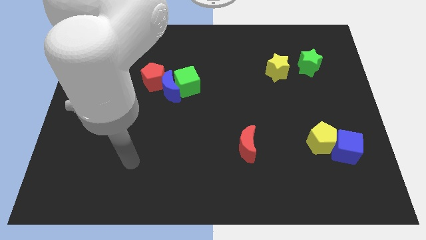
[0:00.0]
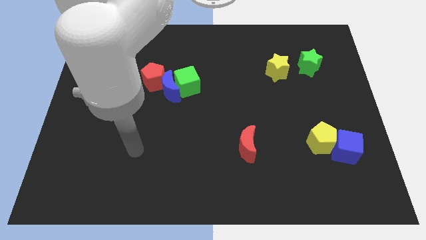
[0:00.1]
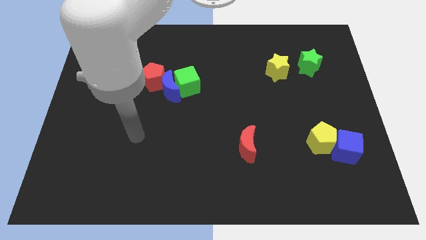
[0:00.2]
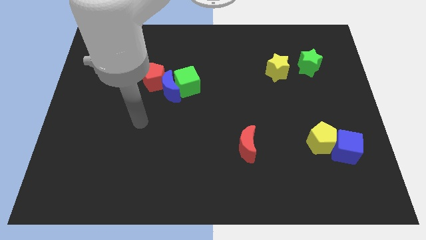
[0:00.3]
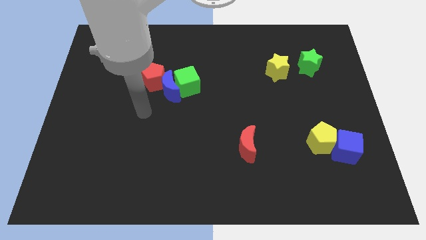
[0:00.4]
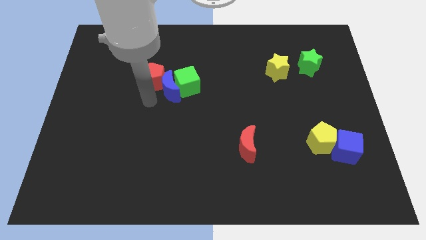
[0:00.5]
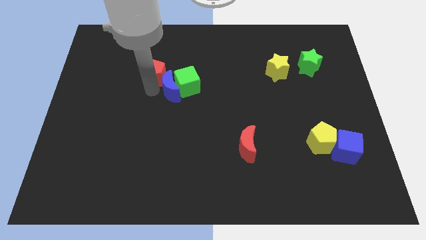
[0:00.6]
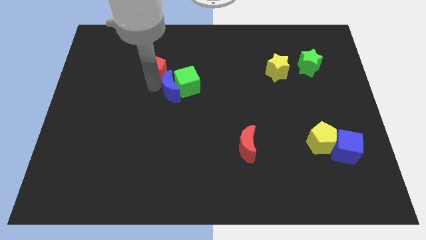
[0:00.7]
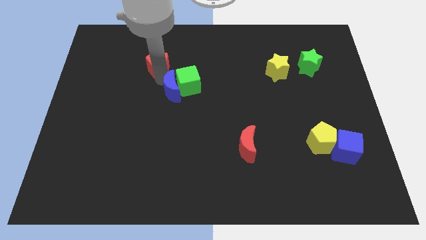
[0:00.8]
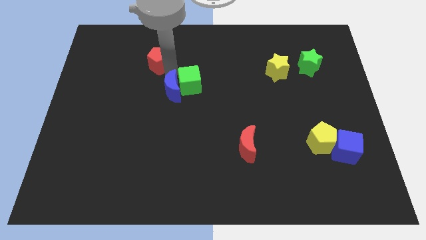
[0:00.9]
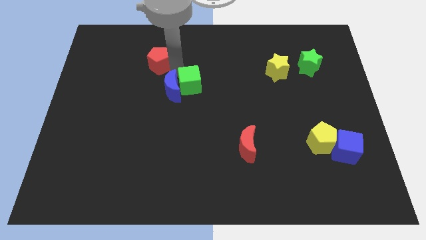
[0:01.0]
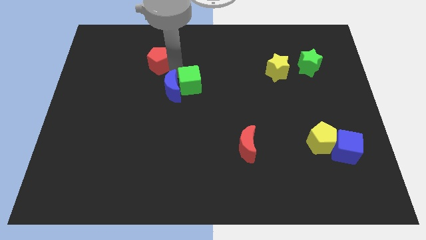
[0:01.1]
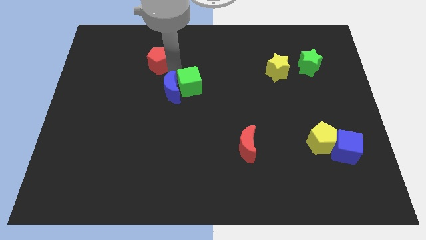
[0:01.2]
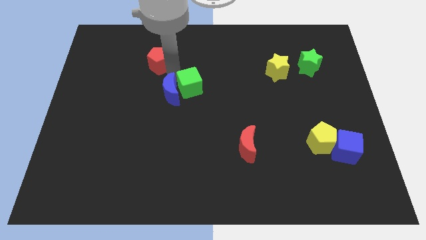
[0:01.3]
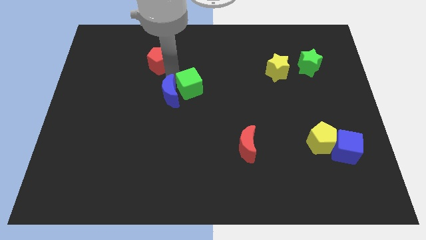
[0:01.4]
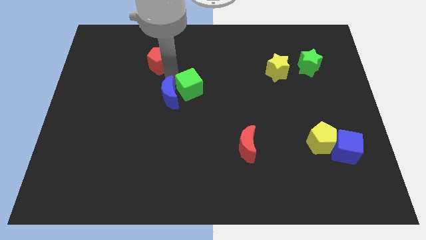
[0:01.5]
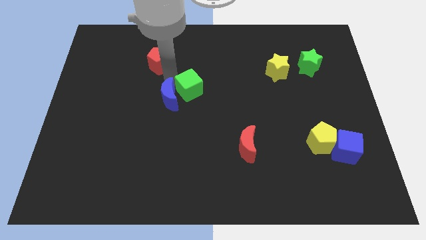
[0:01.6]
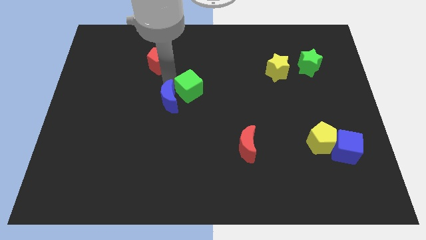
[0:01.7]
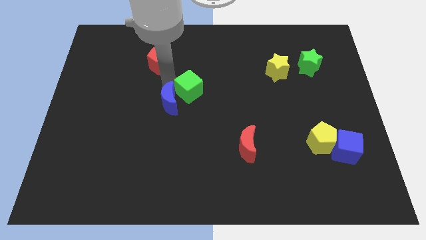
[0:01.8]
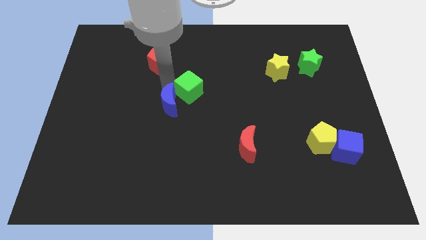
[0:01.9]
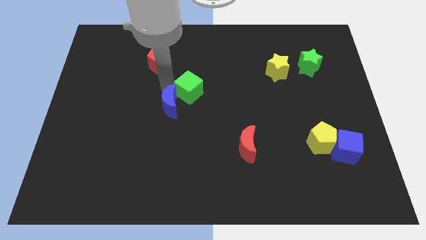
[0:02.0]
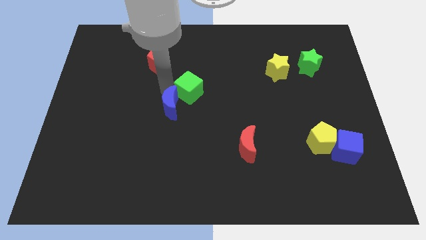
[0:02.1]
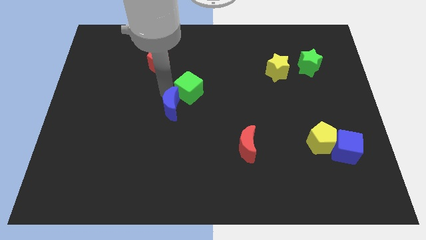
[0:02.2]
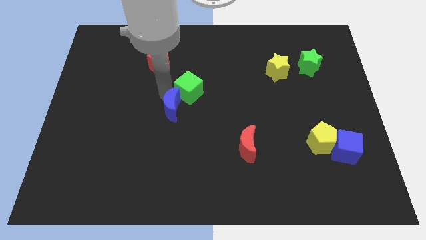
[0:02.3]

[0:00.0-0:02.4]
separate the blue moon from the green cube and red pentagon

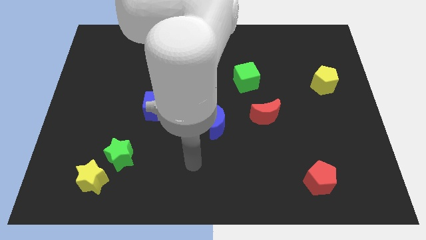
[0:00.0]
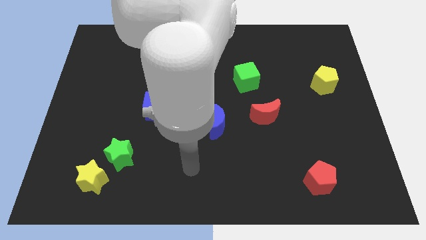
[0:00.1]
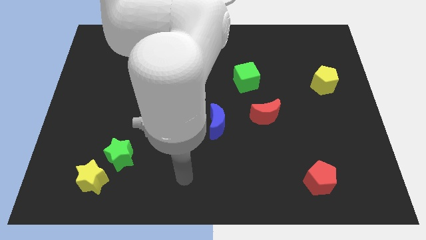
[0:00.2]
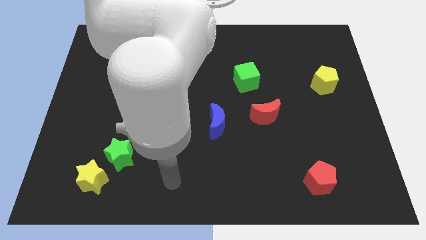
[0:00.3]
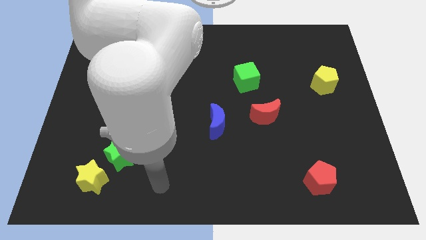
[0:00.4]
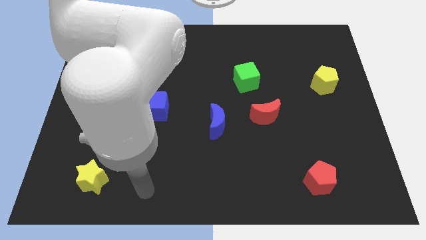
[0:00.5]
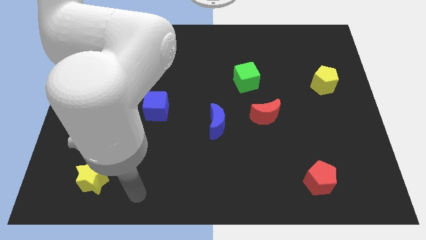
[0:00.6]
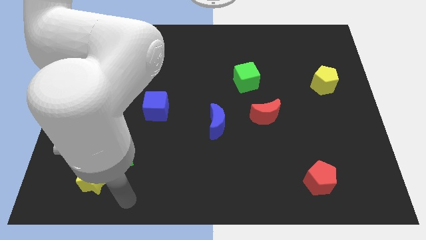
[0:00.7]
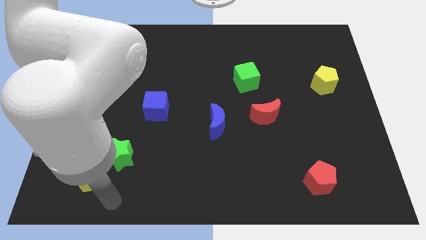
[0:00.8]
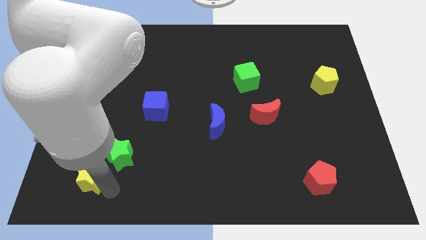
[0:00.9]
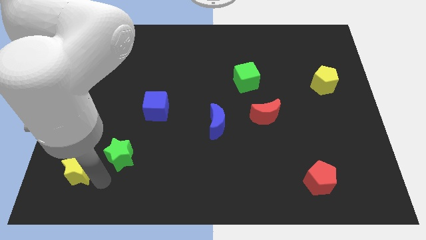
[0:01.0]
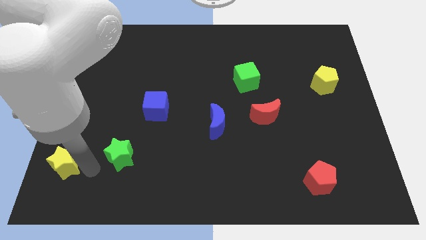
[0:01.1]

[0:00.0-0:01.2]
move the green star away from the yellow star

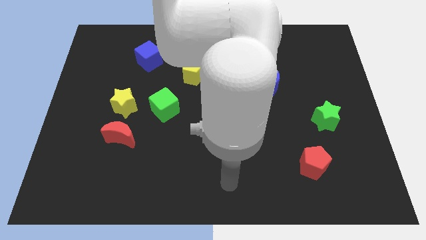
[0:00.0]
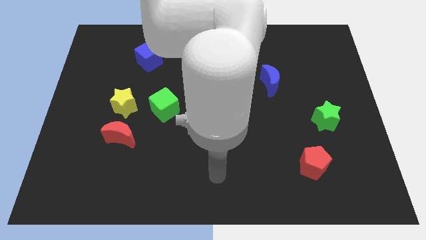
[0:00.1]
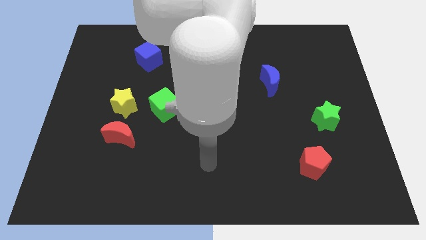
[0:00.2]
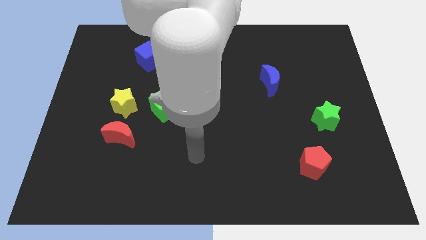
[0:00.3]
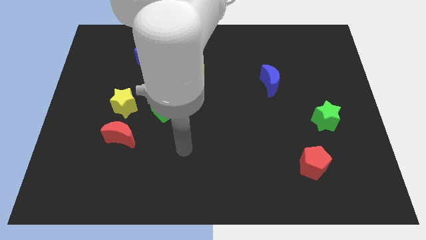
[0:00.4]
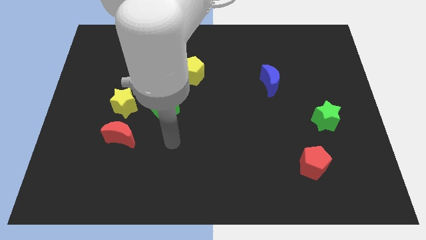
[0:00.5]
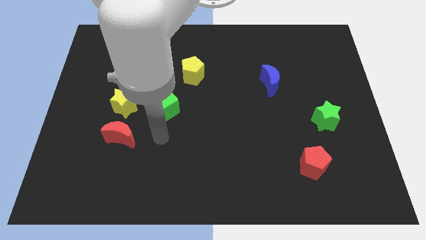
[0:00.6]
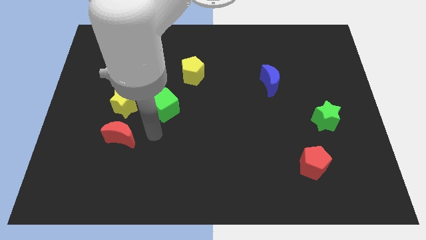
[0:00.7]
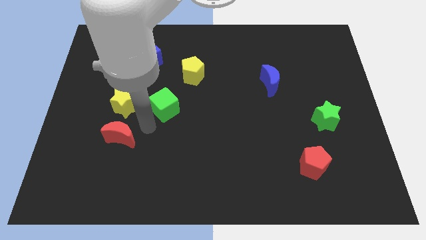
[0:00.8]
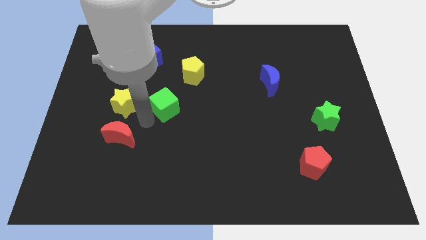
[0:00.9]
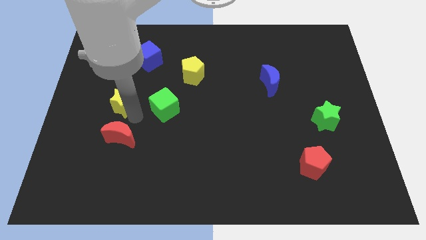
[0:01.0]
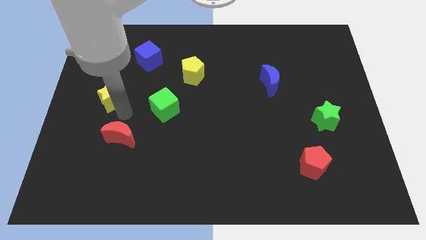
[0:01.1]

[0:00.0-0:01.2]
move the red moon away from the yellow star

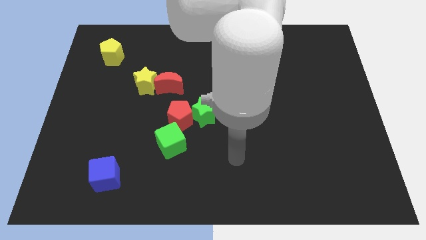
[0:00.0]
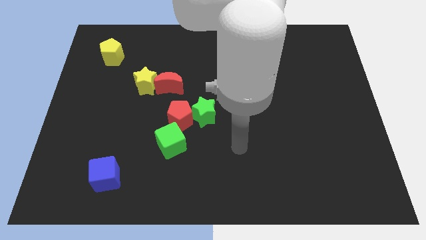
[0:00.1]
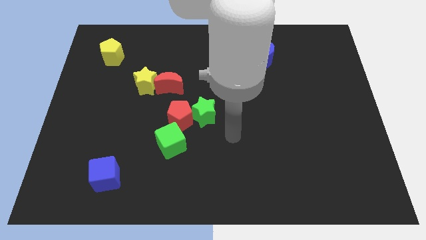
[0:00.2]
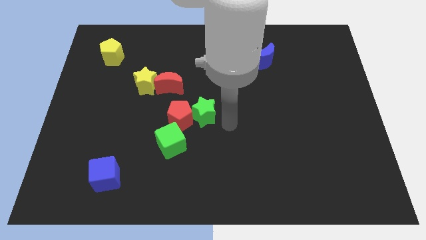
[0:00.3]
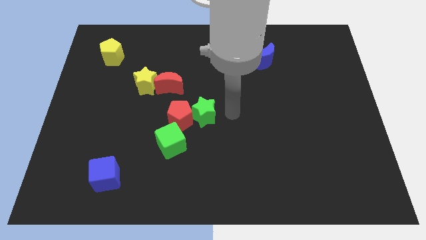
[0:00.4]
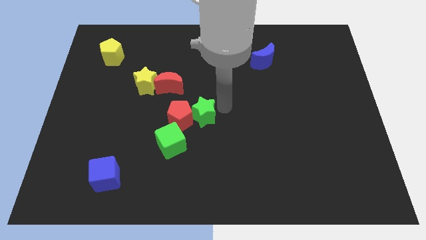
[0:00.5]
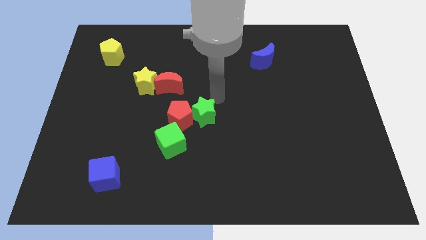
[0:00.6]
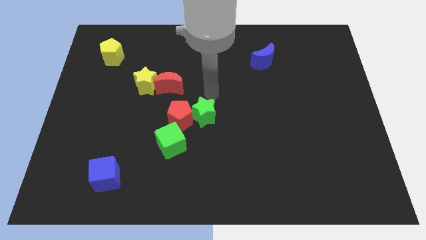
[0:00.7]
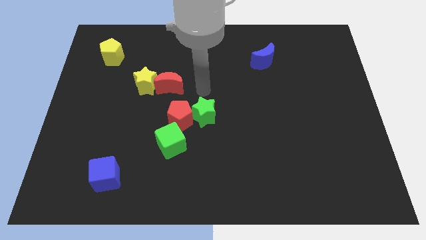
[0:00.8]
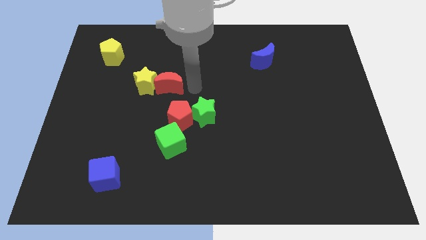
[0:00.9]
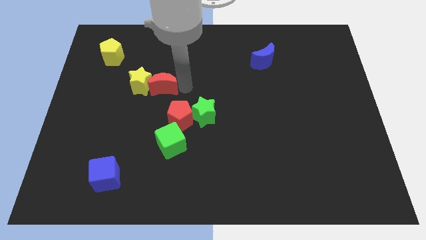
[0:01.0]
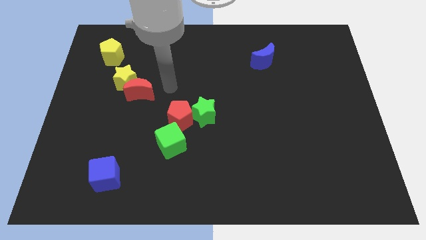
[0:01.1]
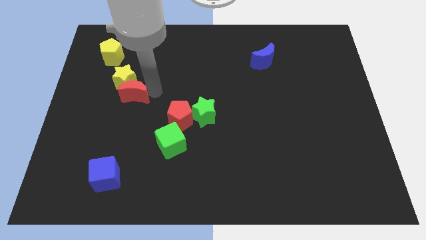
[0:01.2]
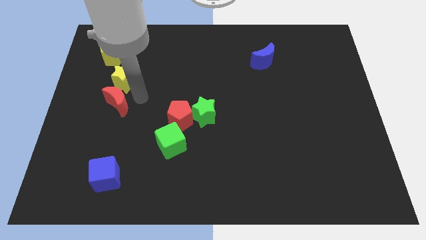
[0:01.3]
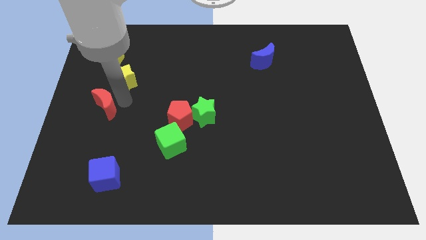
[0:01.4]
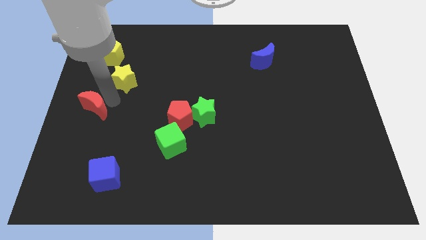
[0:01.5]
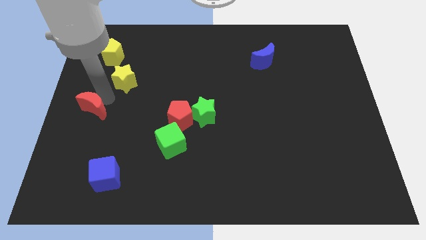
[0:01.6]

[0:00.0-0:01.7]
pull the yellow star apart from the red moon

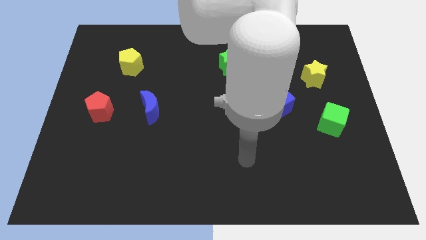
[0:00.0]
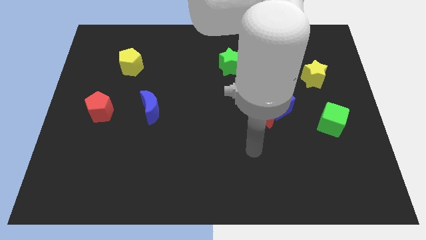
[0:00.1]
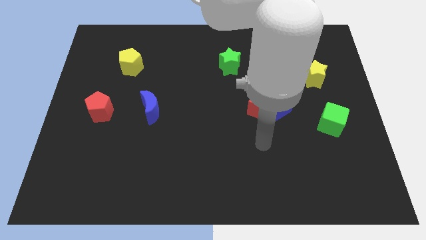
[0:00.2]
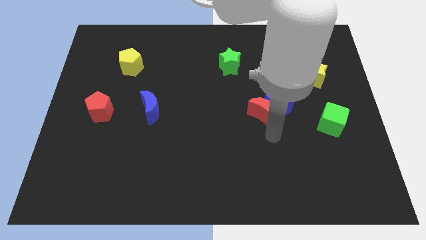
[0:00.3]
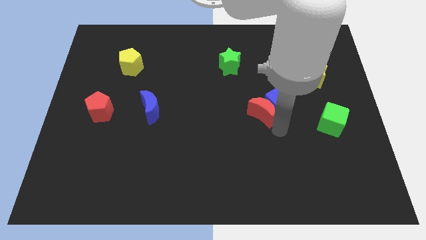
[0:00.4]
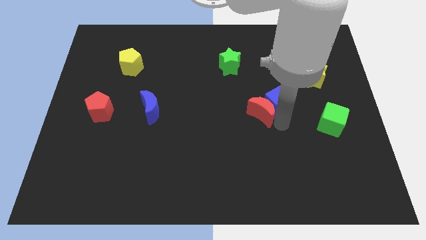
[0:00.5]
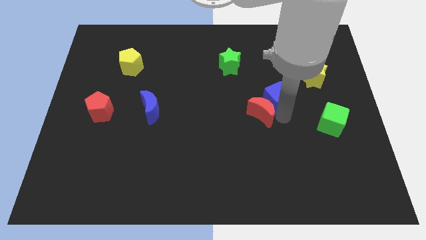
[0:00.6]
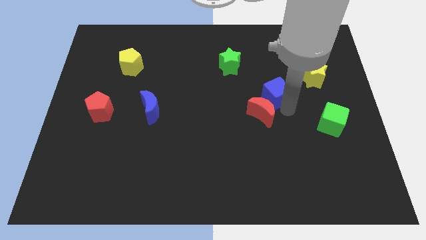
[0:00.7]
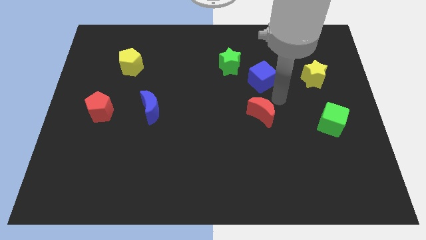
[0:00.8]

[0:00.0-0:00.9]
pull the red moon apart from the blue cube

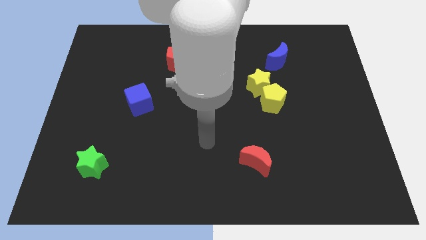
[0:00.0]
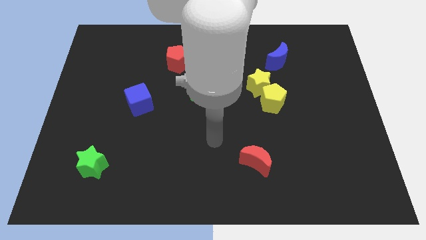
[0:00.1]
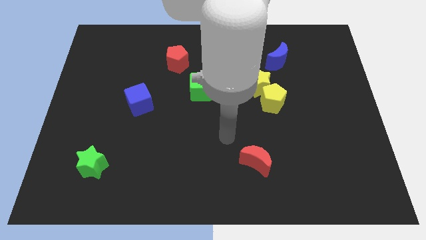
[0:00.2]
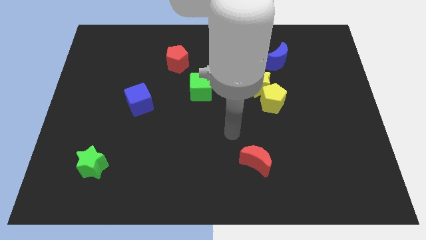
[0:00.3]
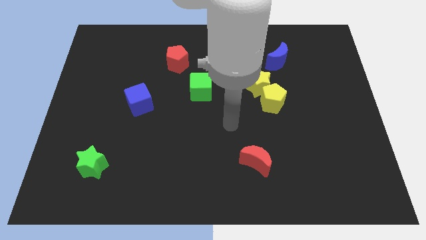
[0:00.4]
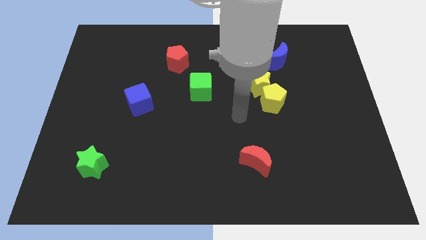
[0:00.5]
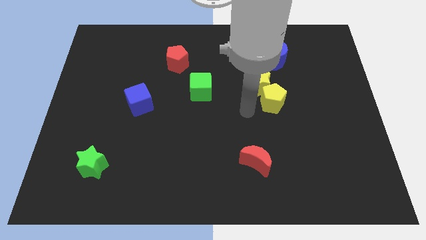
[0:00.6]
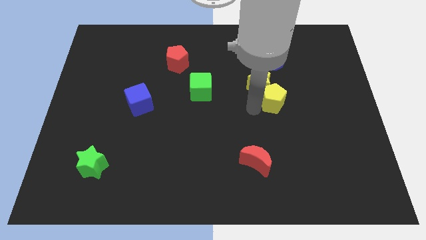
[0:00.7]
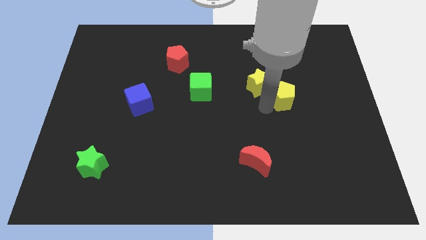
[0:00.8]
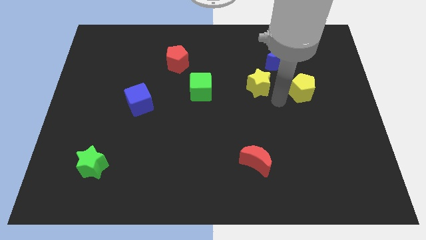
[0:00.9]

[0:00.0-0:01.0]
separate the yellow star from the yellow pentagon

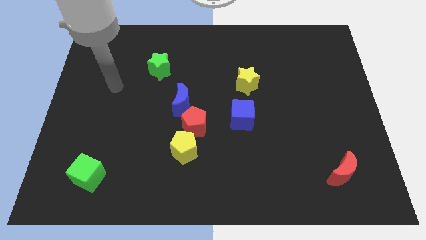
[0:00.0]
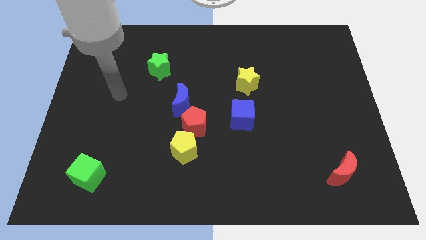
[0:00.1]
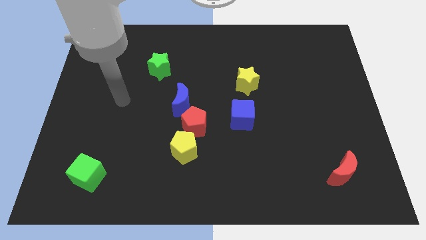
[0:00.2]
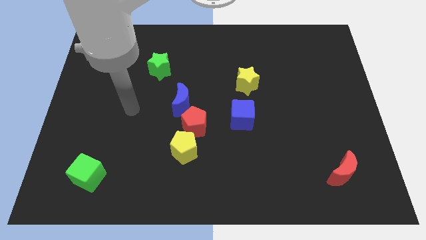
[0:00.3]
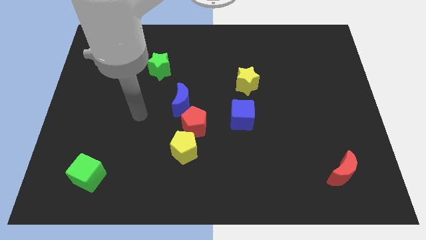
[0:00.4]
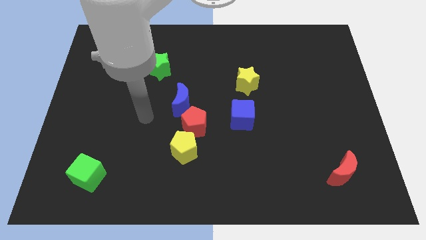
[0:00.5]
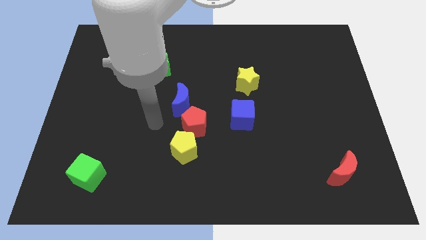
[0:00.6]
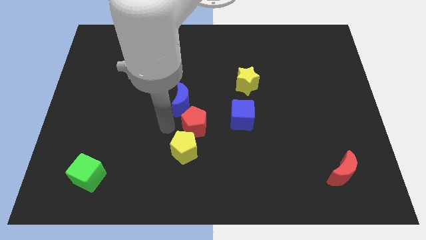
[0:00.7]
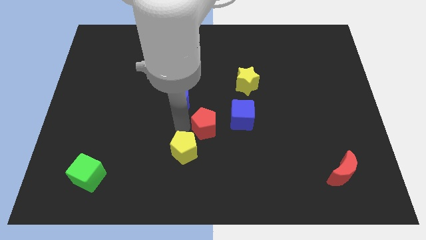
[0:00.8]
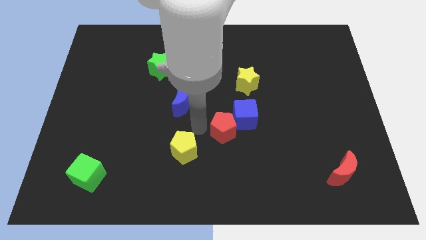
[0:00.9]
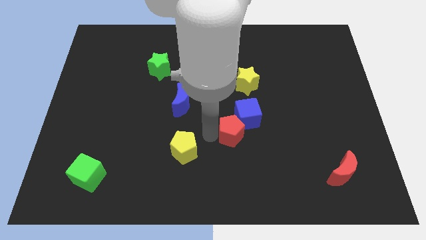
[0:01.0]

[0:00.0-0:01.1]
separate the yellow pentagon from the red pentagon
